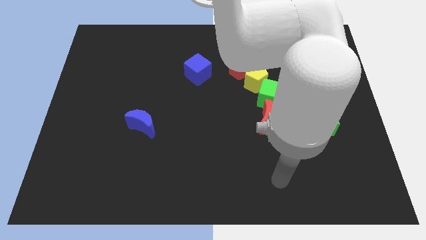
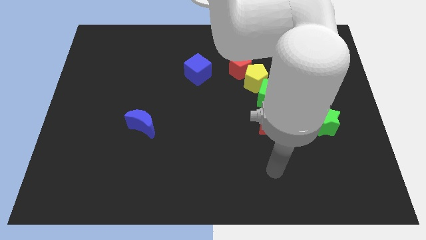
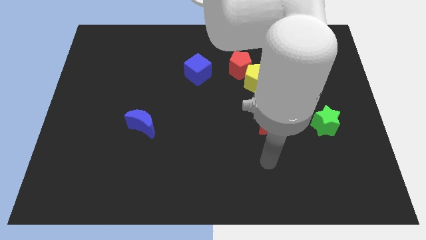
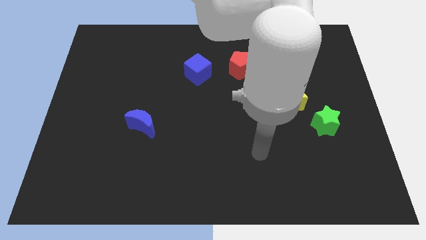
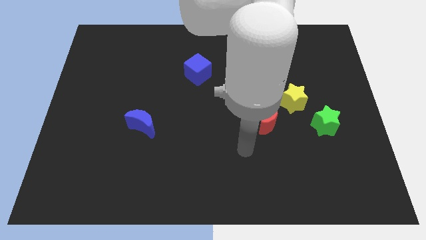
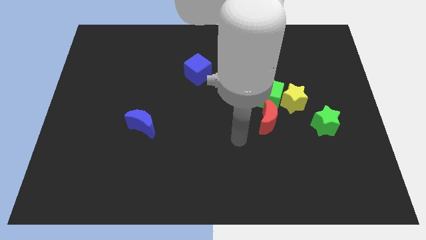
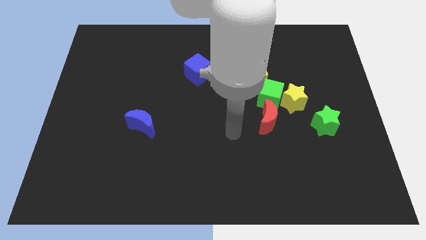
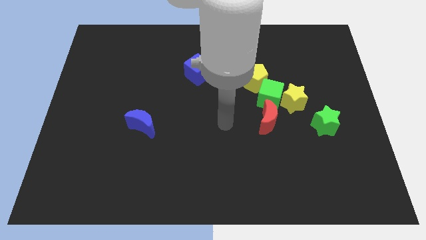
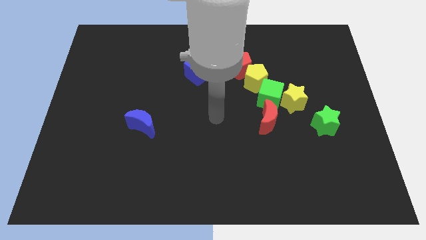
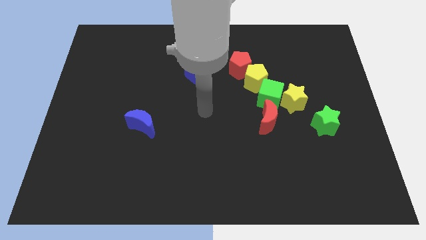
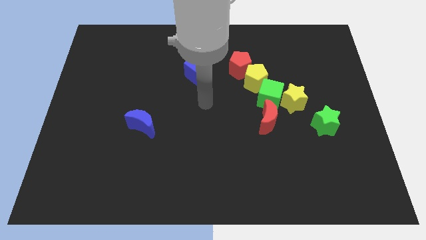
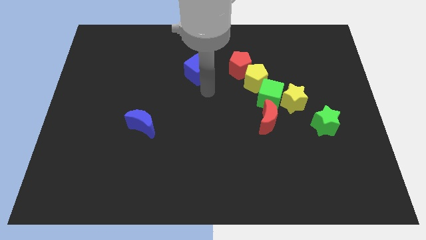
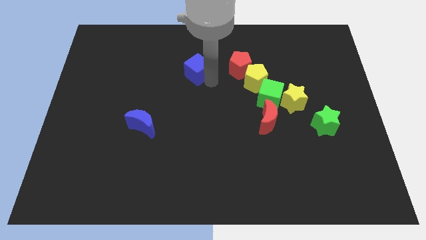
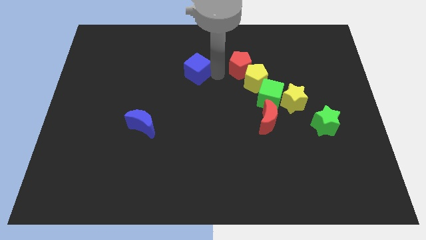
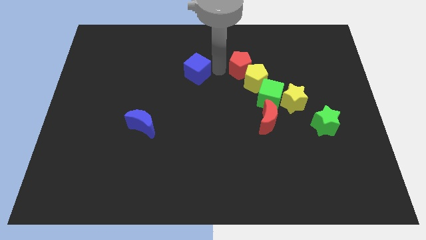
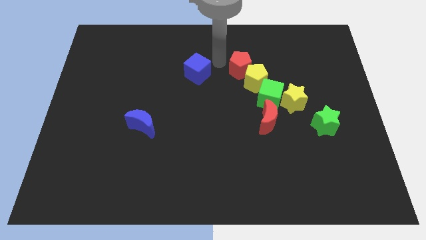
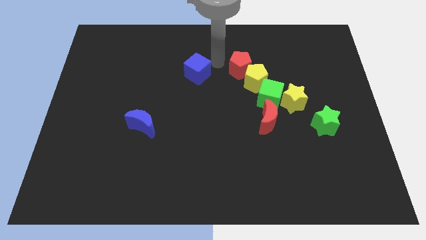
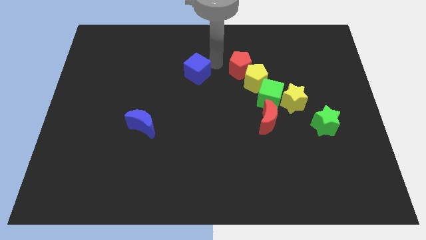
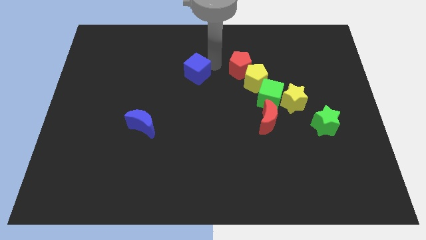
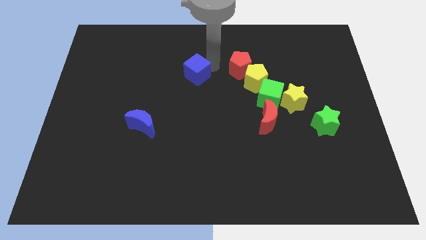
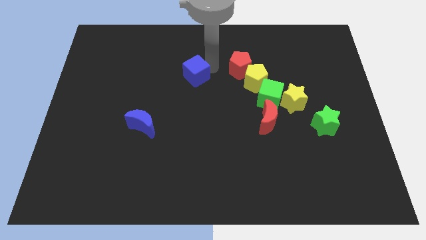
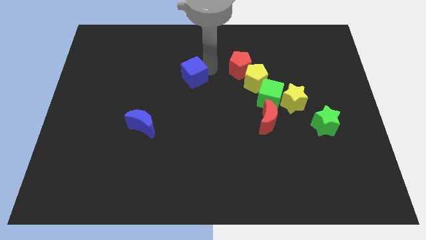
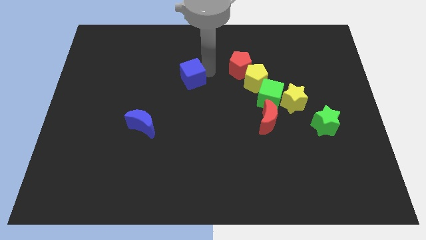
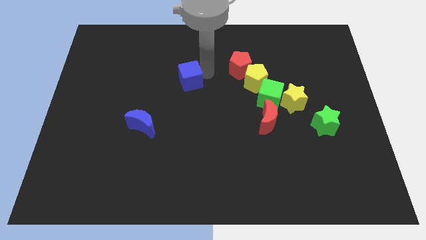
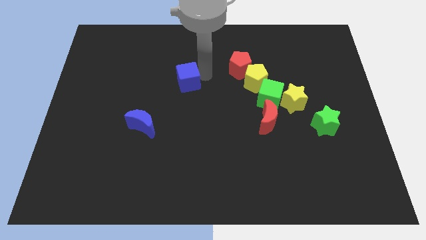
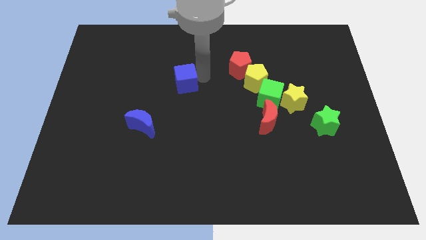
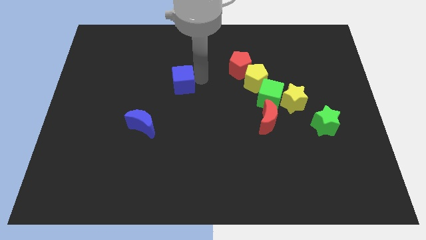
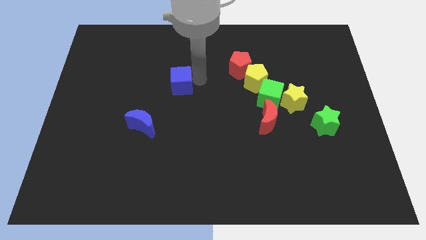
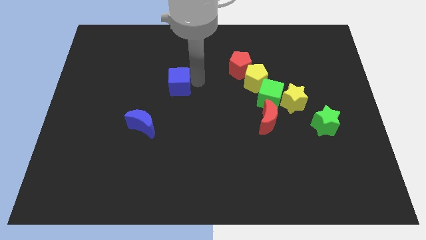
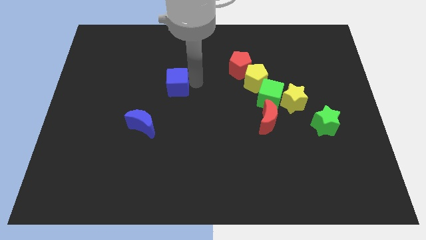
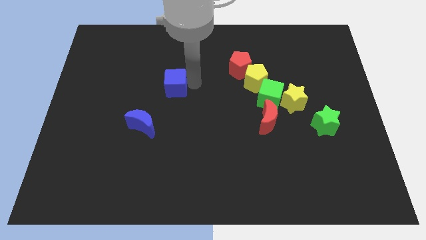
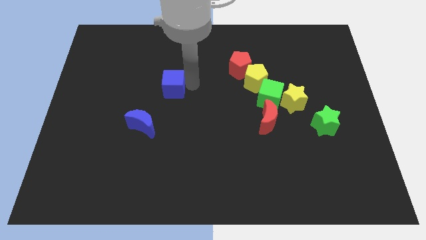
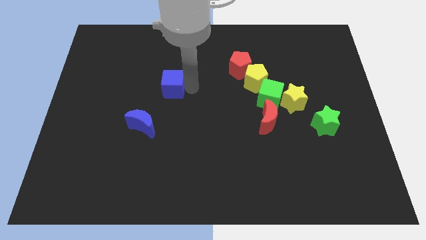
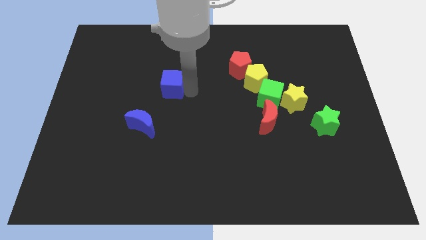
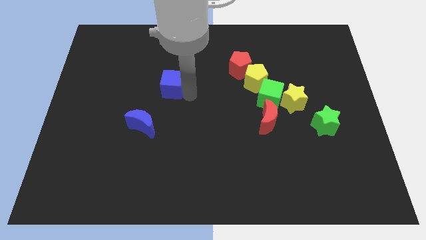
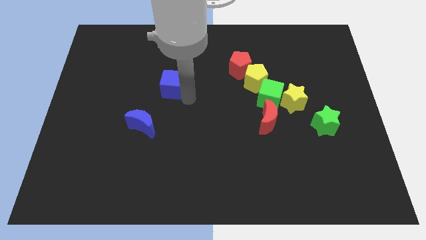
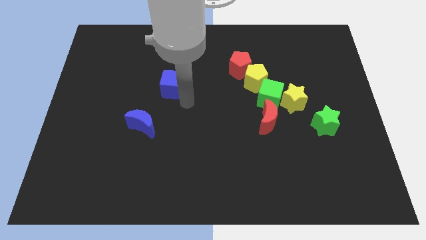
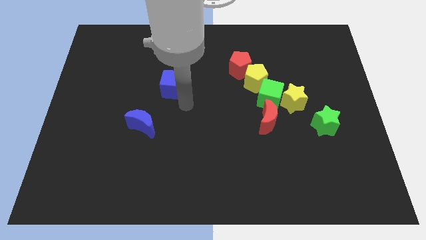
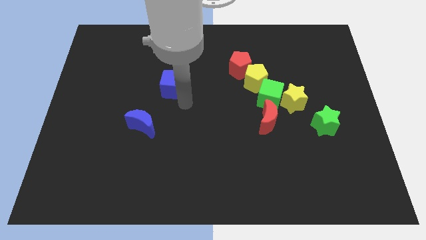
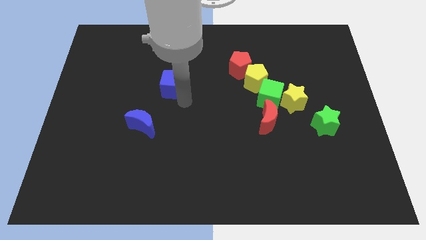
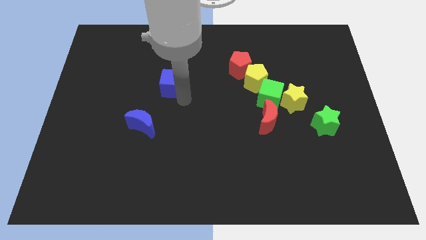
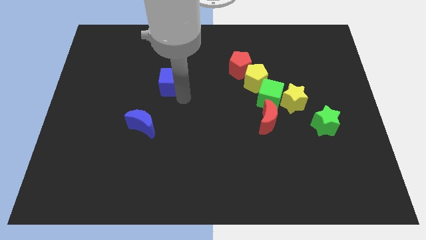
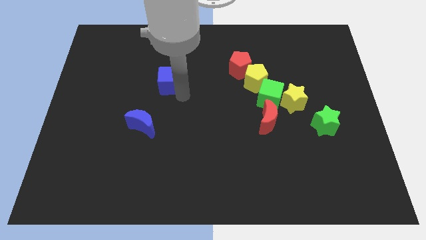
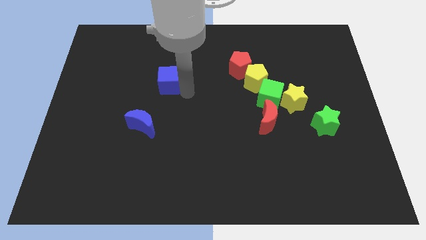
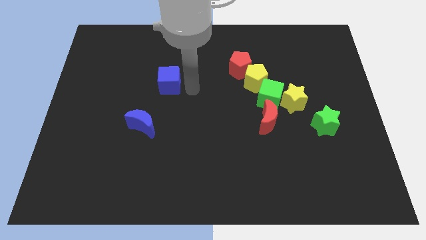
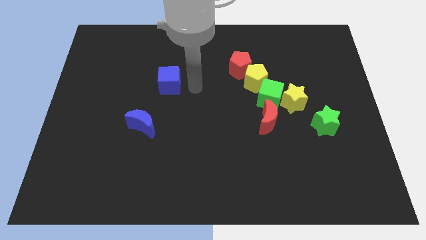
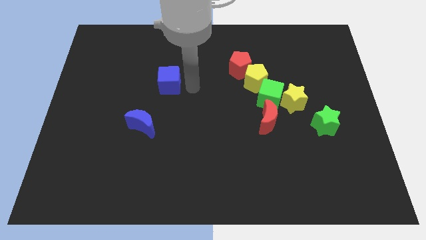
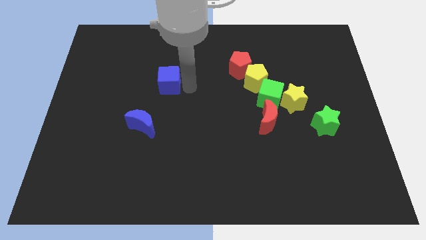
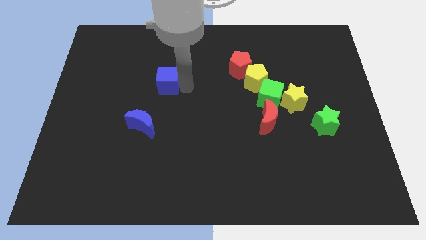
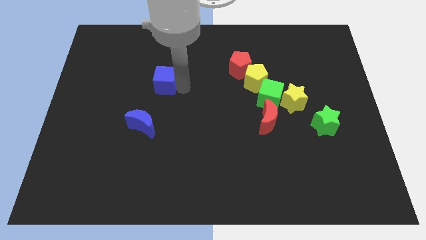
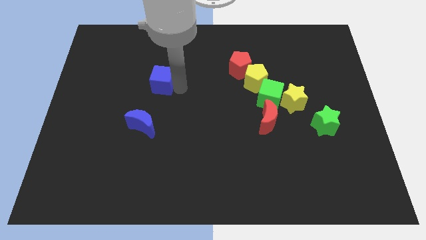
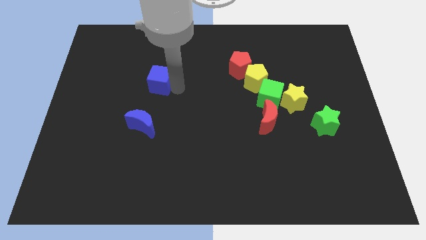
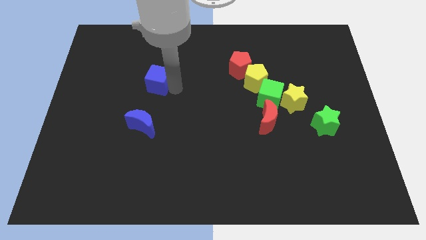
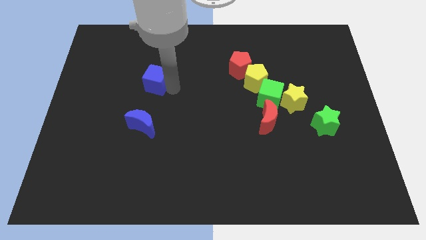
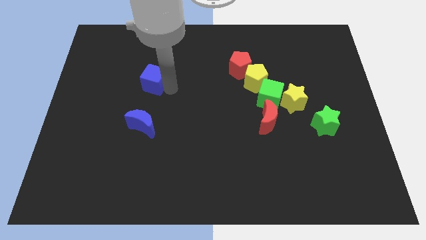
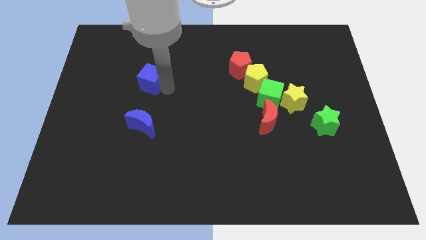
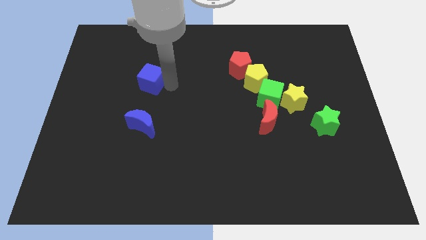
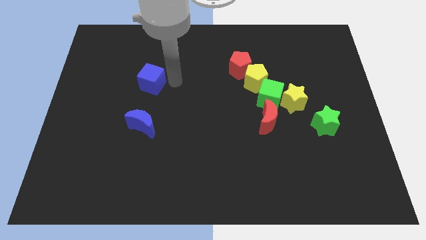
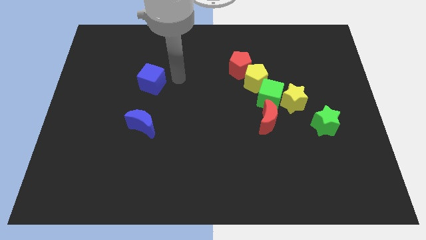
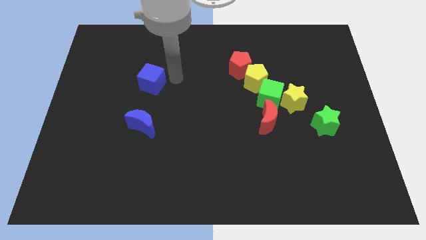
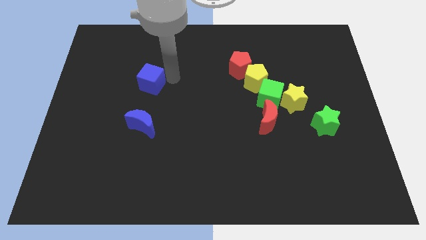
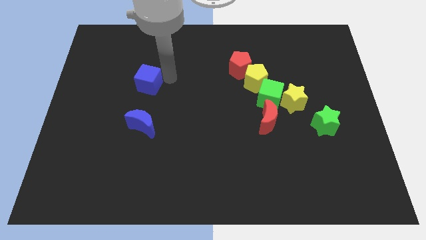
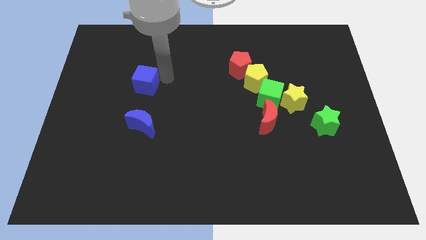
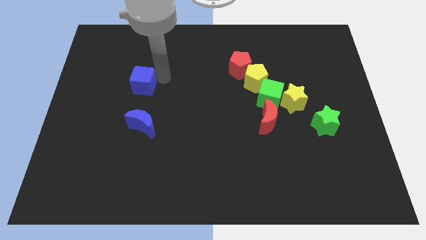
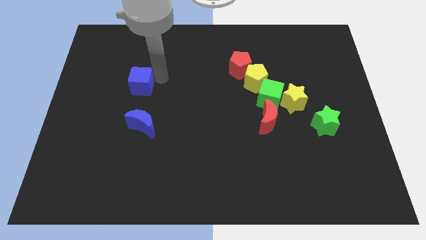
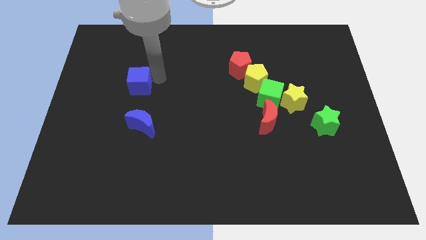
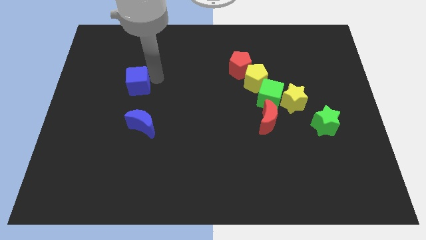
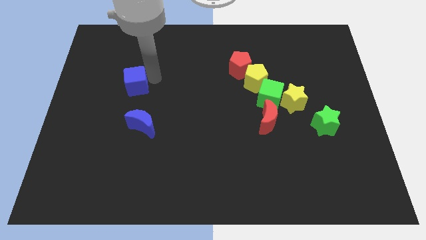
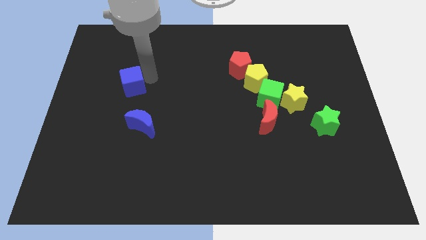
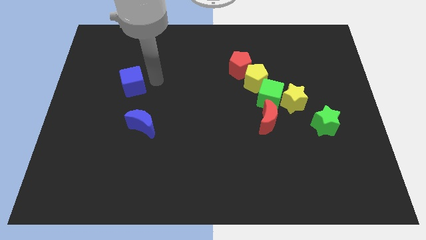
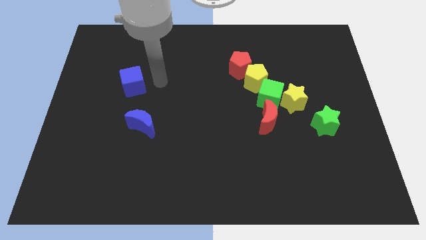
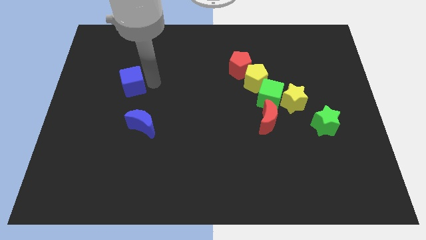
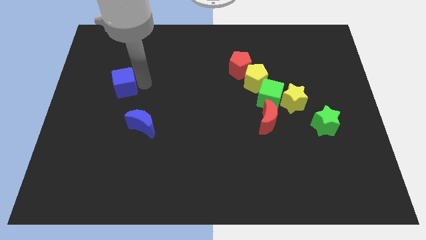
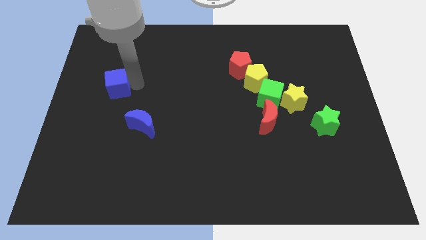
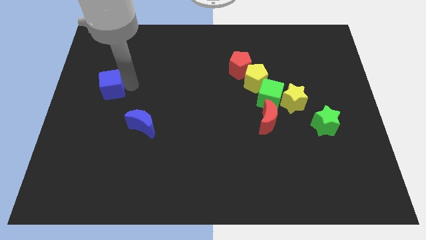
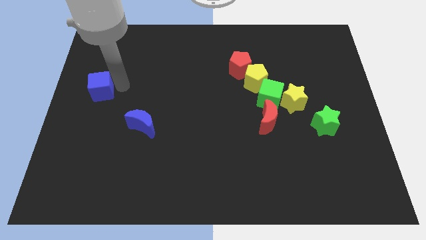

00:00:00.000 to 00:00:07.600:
slide the blue cube to the center left

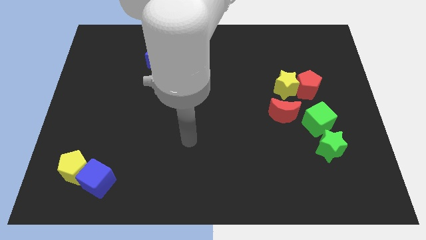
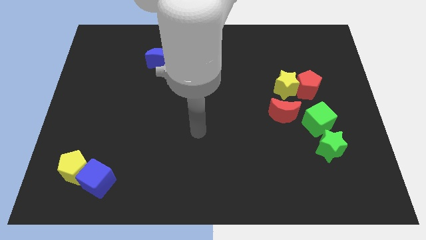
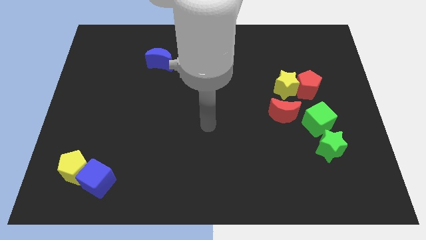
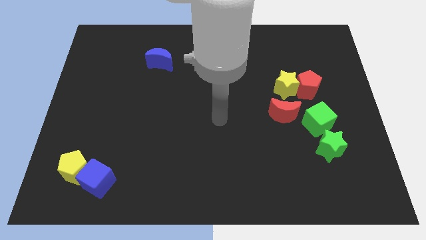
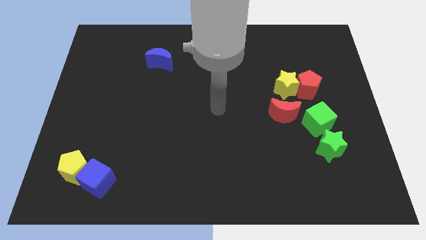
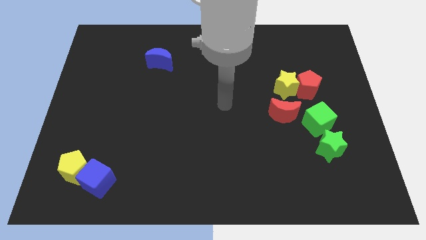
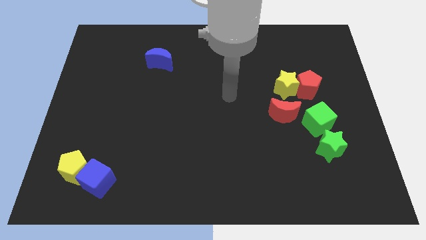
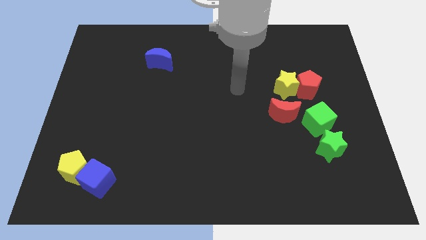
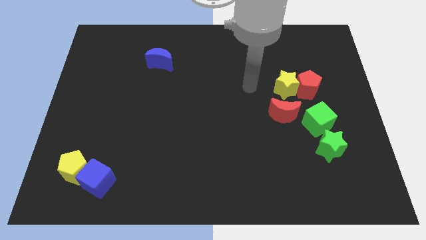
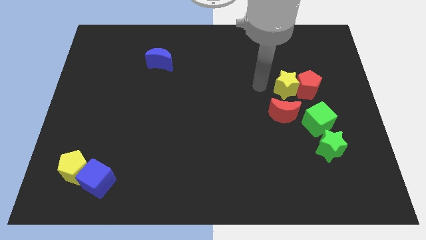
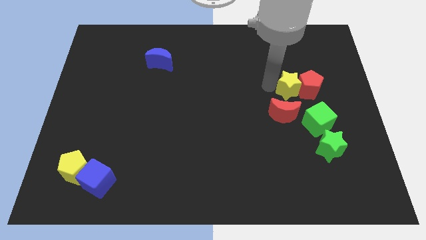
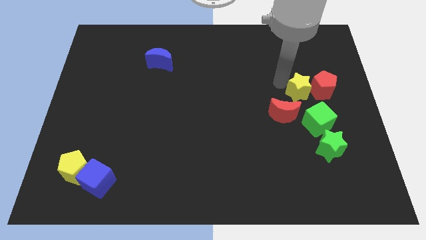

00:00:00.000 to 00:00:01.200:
move the red pentagon to the center right
